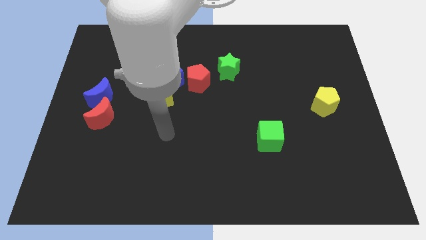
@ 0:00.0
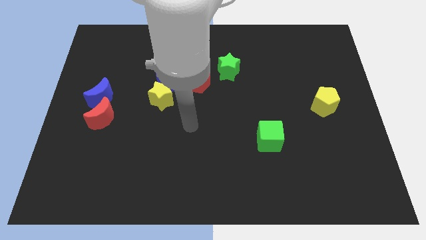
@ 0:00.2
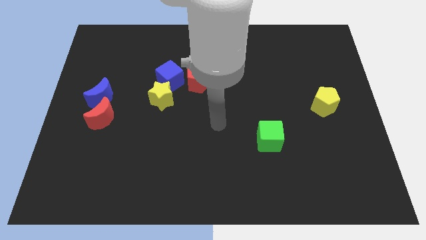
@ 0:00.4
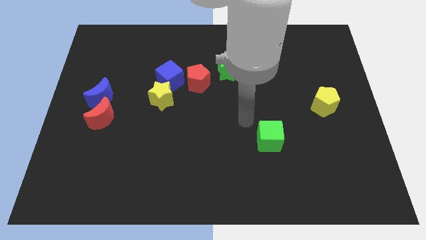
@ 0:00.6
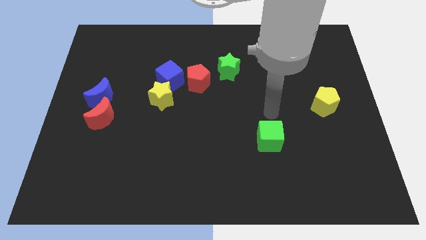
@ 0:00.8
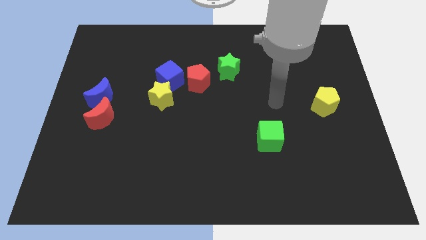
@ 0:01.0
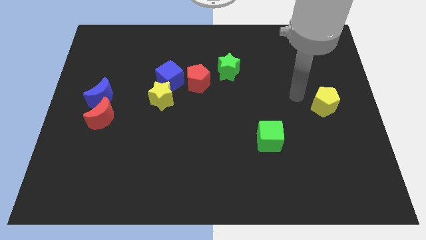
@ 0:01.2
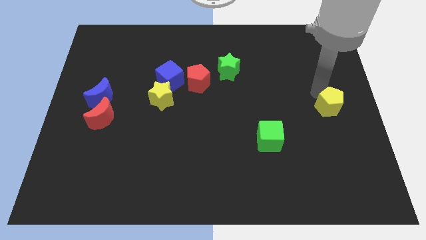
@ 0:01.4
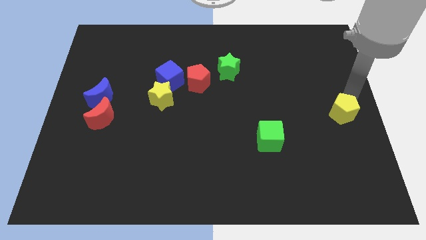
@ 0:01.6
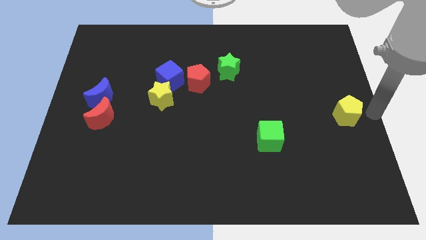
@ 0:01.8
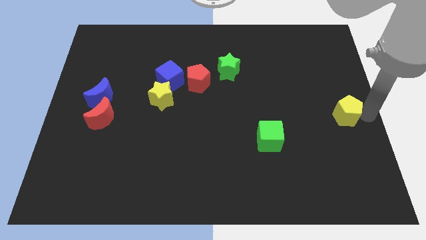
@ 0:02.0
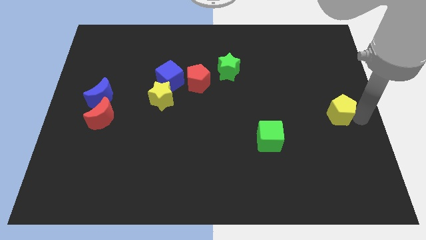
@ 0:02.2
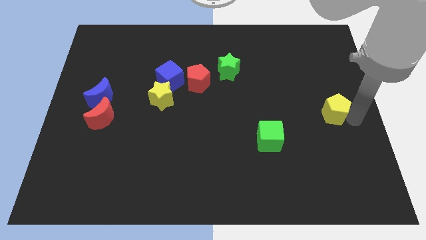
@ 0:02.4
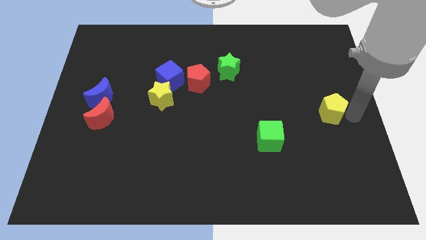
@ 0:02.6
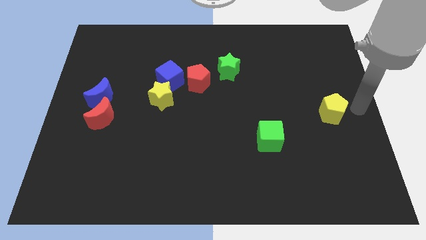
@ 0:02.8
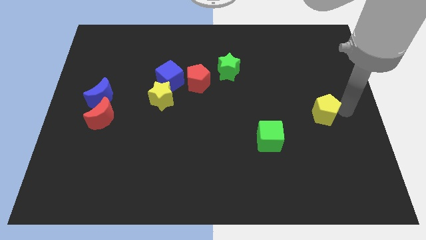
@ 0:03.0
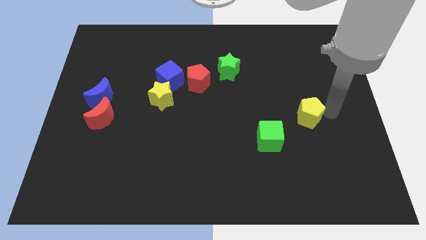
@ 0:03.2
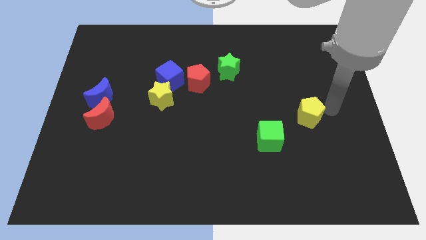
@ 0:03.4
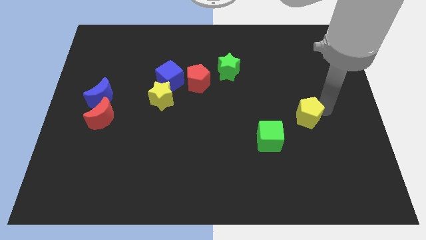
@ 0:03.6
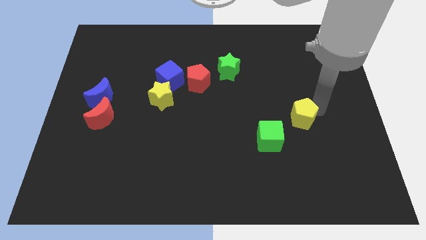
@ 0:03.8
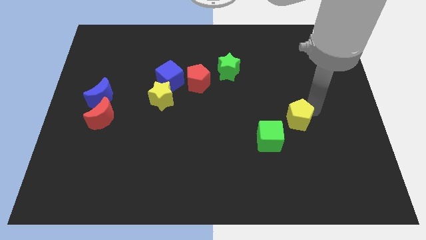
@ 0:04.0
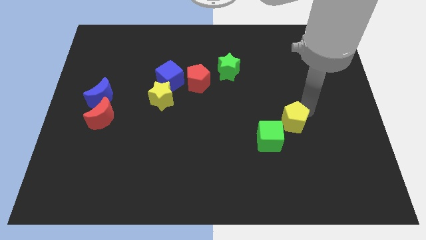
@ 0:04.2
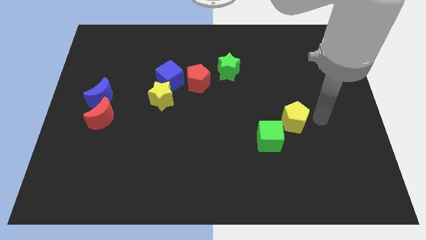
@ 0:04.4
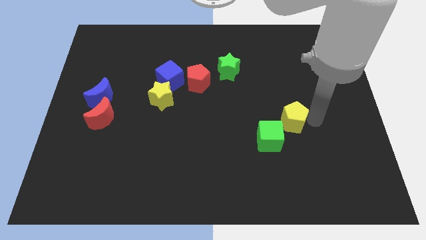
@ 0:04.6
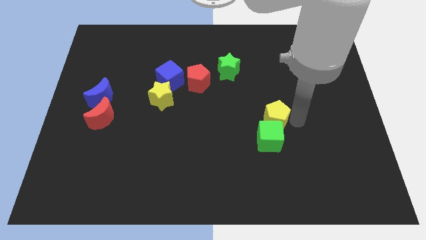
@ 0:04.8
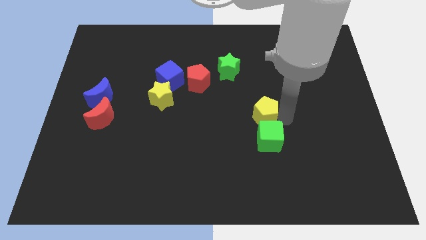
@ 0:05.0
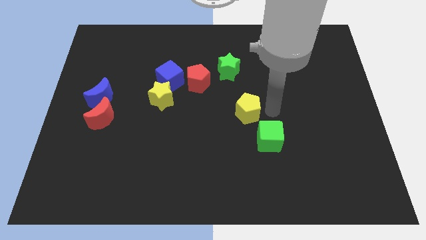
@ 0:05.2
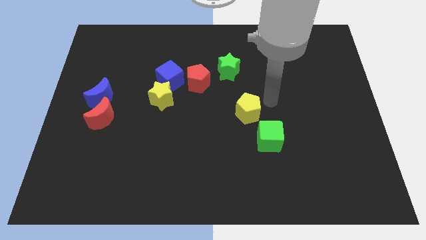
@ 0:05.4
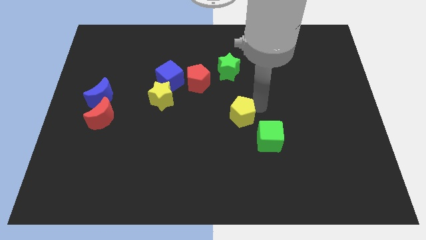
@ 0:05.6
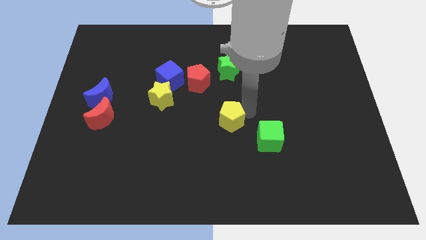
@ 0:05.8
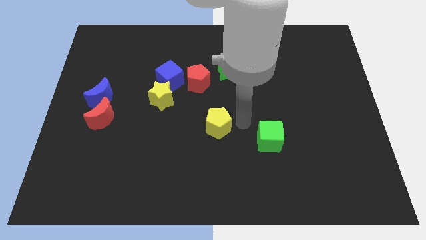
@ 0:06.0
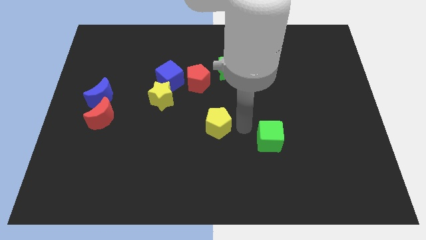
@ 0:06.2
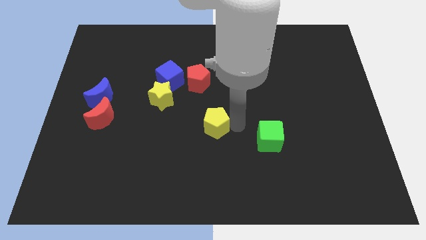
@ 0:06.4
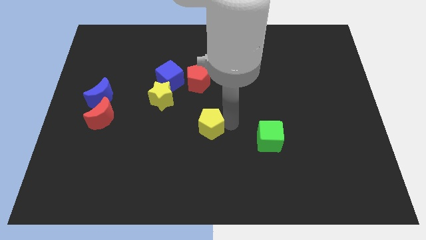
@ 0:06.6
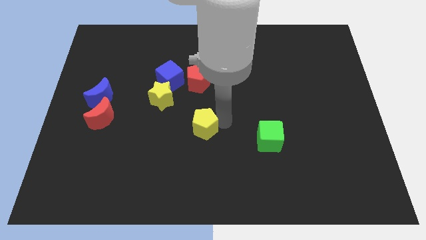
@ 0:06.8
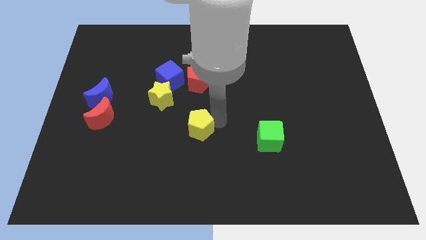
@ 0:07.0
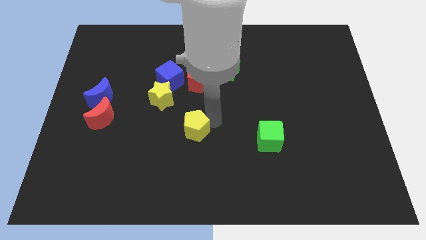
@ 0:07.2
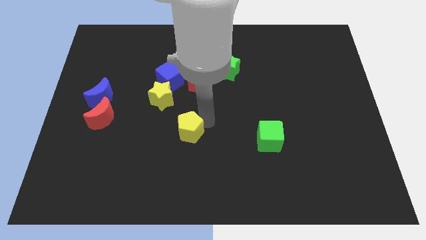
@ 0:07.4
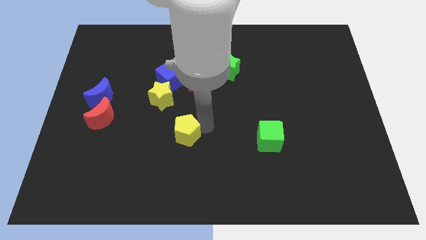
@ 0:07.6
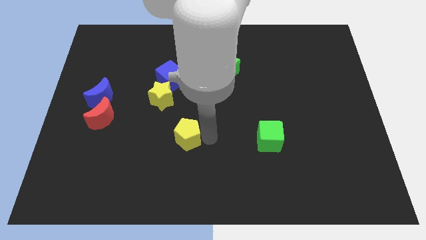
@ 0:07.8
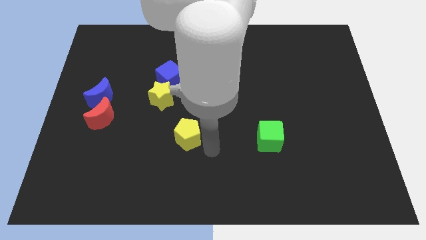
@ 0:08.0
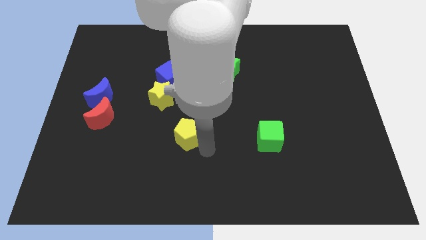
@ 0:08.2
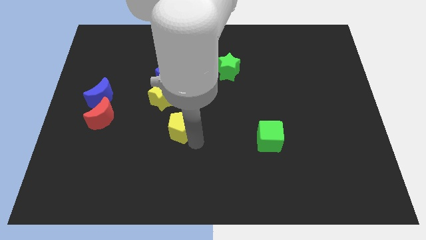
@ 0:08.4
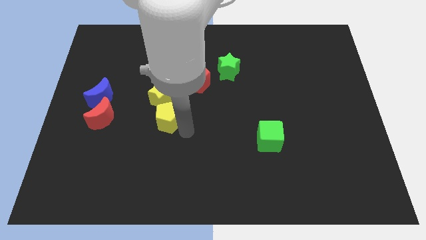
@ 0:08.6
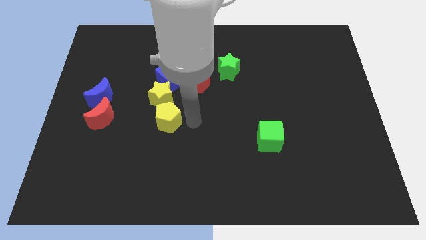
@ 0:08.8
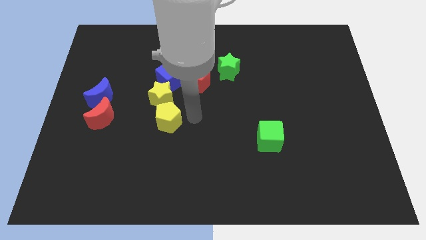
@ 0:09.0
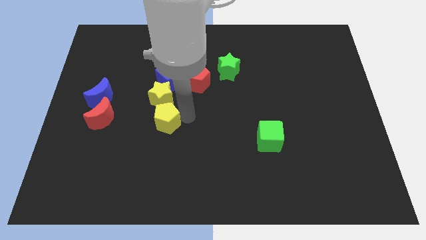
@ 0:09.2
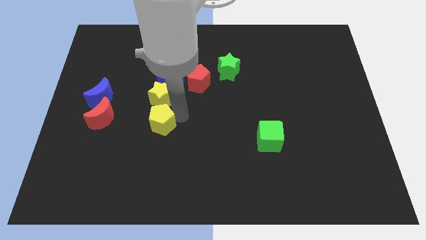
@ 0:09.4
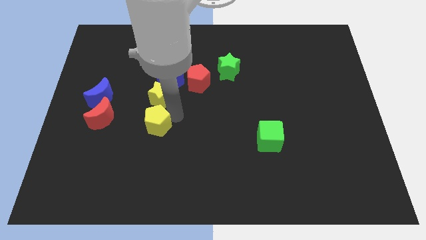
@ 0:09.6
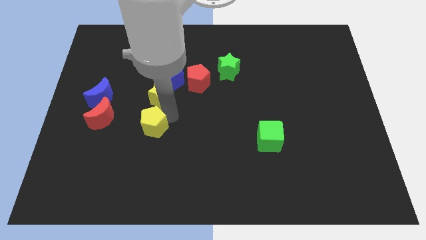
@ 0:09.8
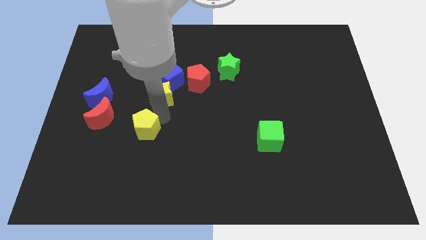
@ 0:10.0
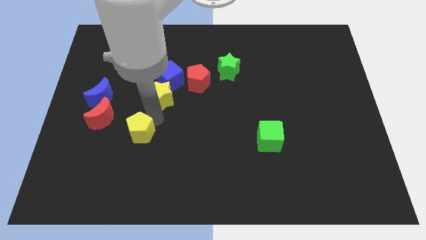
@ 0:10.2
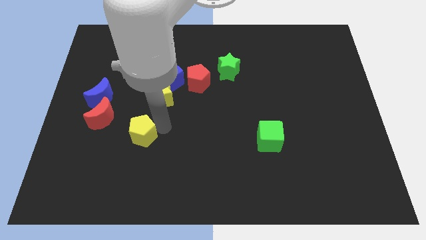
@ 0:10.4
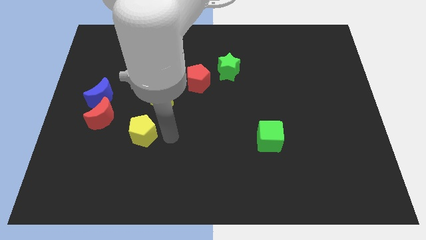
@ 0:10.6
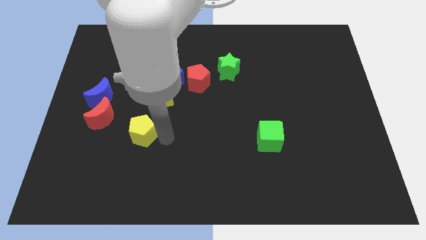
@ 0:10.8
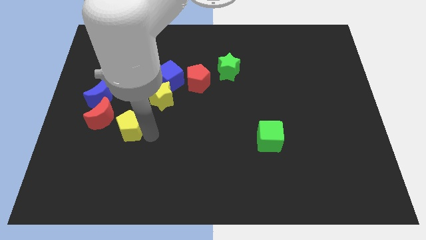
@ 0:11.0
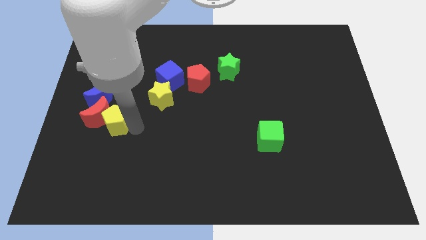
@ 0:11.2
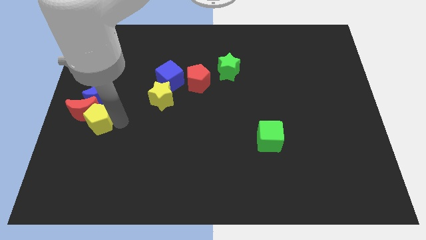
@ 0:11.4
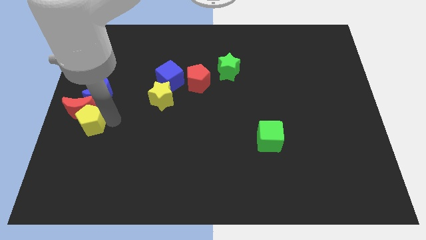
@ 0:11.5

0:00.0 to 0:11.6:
slide the yellow pentagon to the center left

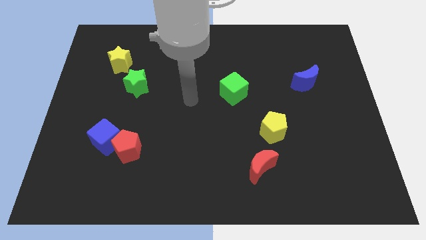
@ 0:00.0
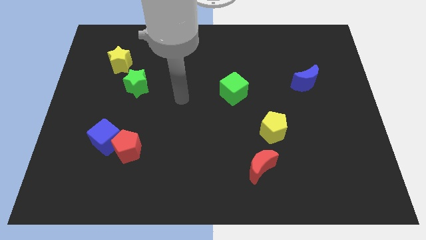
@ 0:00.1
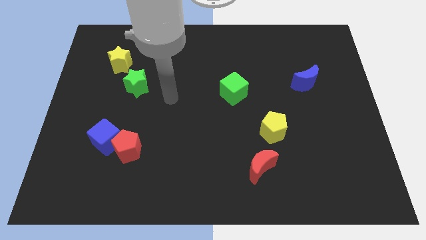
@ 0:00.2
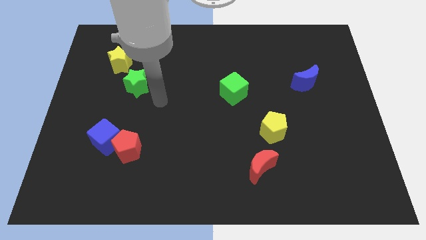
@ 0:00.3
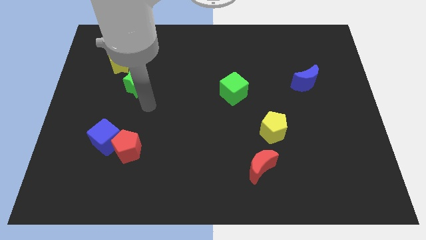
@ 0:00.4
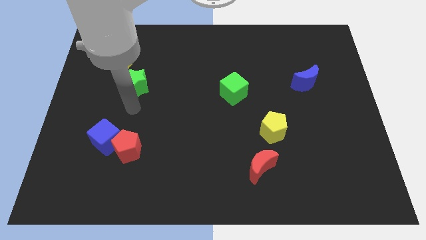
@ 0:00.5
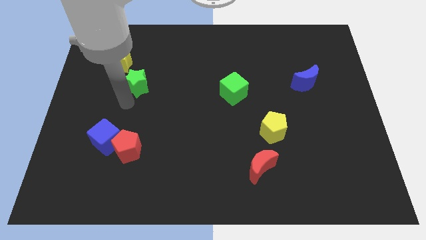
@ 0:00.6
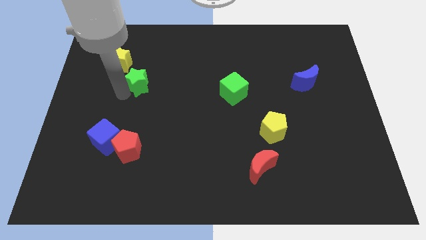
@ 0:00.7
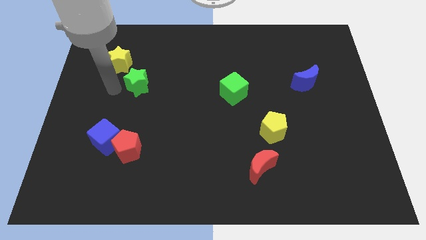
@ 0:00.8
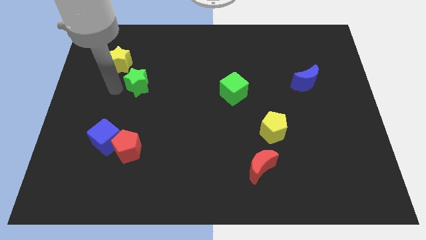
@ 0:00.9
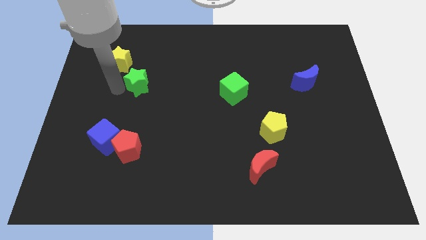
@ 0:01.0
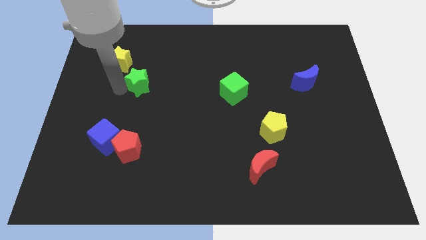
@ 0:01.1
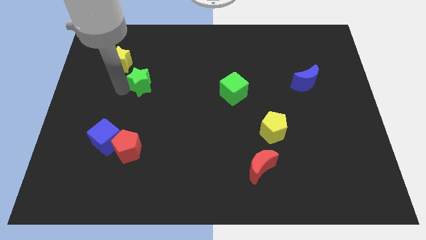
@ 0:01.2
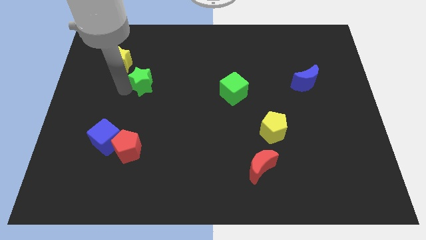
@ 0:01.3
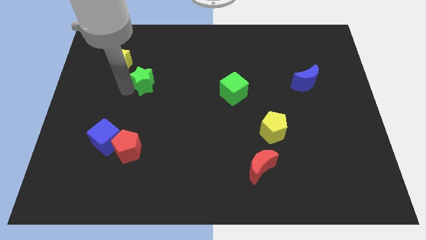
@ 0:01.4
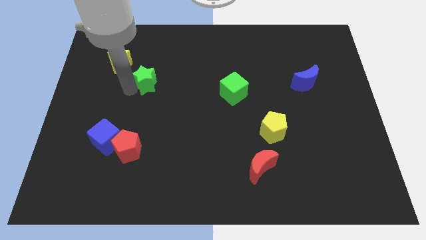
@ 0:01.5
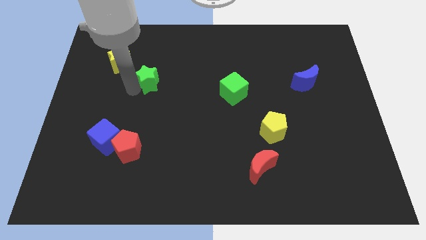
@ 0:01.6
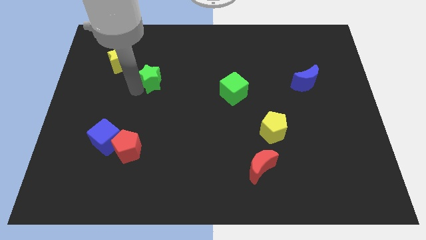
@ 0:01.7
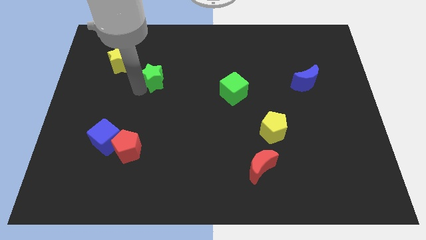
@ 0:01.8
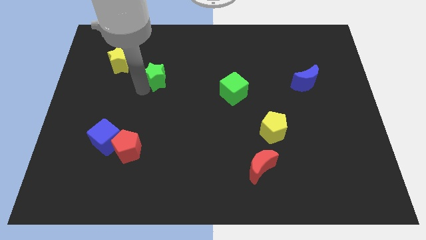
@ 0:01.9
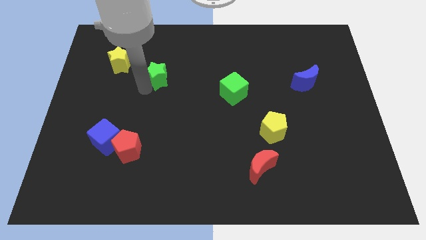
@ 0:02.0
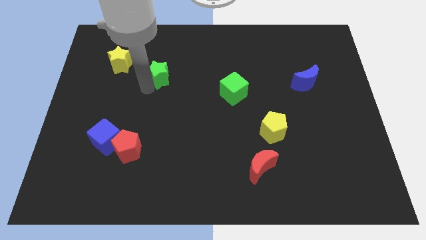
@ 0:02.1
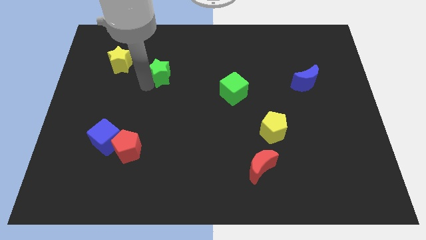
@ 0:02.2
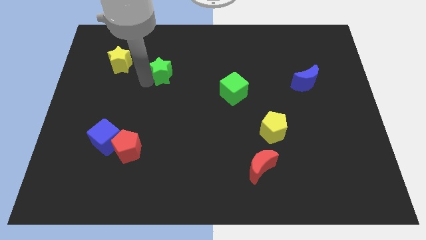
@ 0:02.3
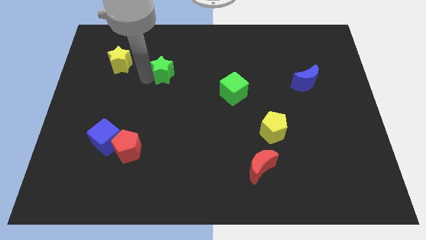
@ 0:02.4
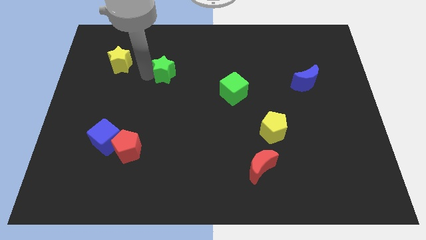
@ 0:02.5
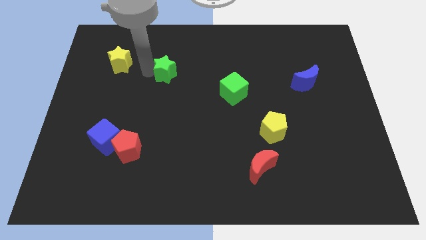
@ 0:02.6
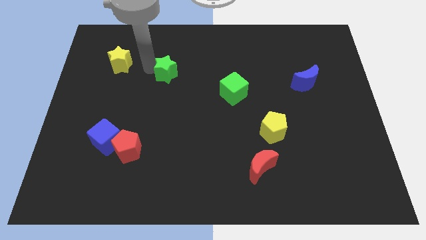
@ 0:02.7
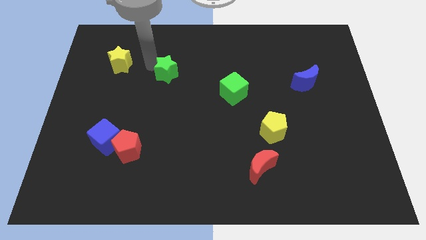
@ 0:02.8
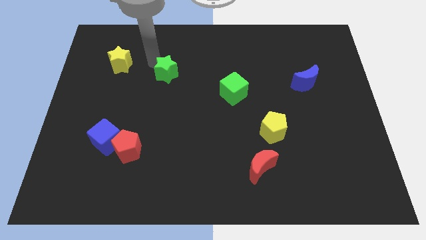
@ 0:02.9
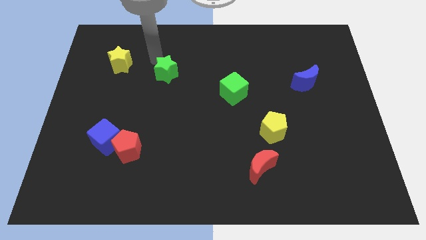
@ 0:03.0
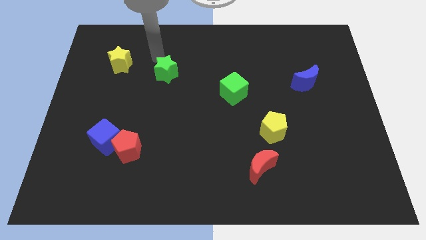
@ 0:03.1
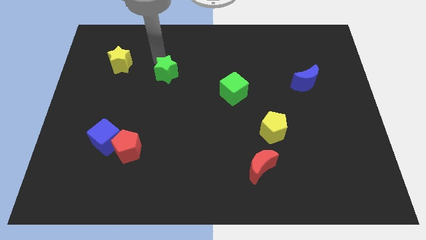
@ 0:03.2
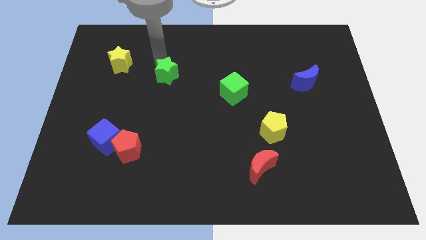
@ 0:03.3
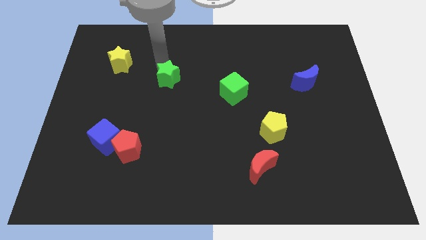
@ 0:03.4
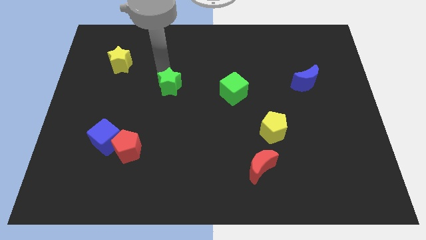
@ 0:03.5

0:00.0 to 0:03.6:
push the green star to the center
